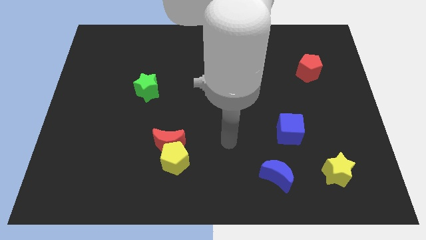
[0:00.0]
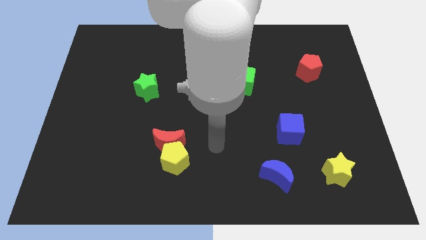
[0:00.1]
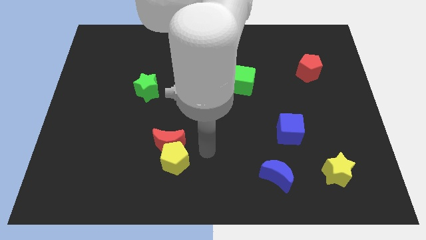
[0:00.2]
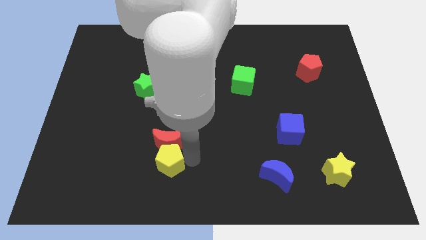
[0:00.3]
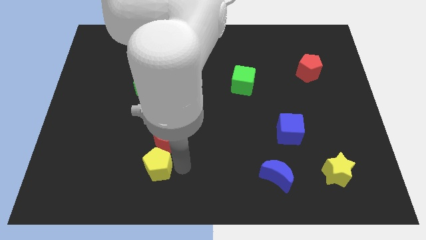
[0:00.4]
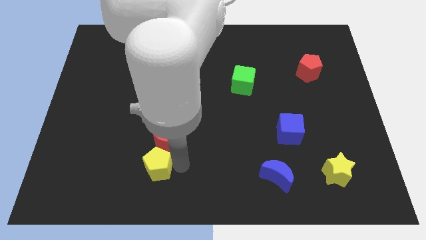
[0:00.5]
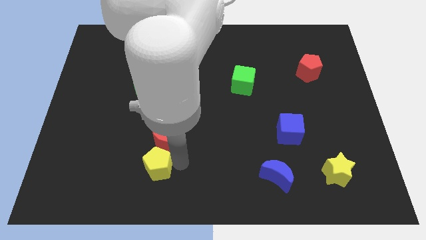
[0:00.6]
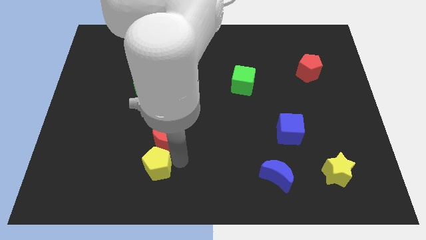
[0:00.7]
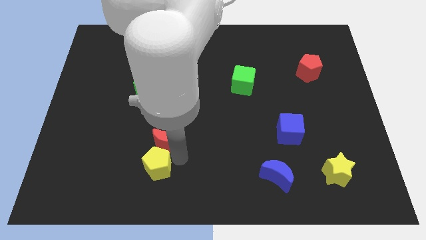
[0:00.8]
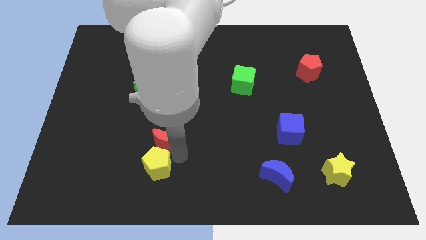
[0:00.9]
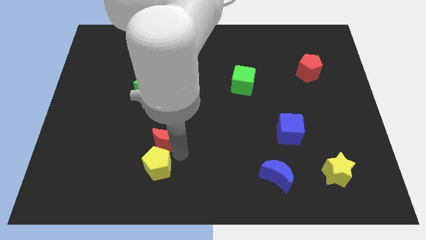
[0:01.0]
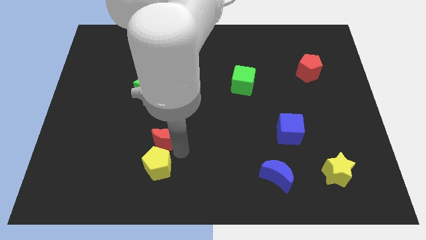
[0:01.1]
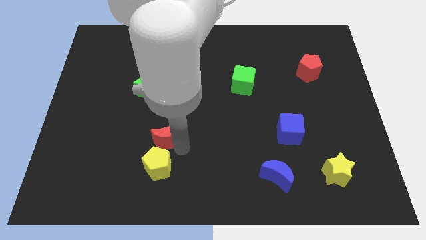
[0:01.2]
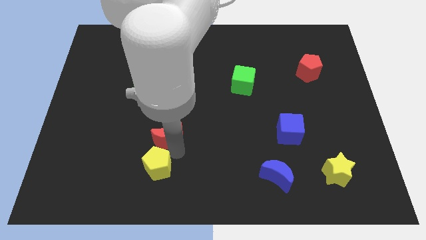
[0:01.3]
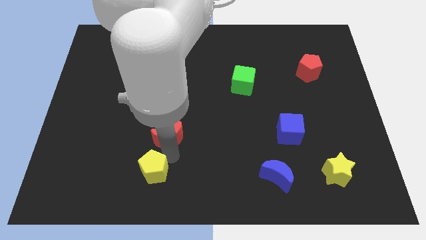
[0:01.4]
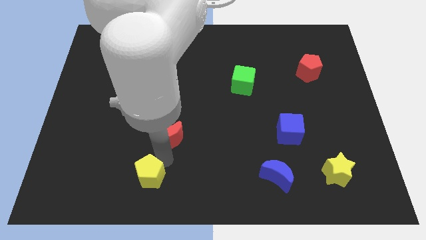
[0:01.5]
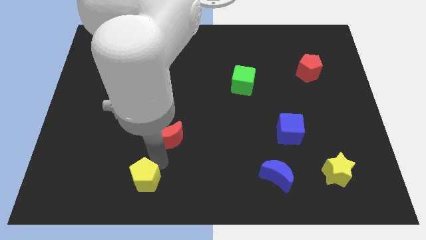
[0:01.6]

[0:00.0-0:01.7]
separate the red moon from the yellow pentagon

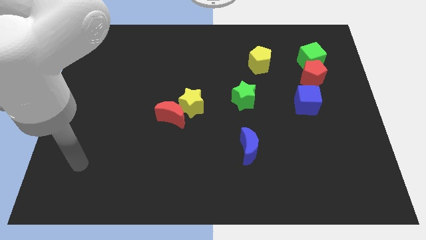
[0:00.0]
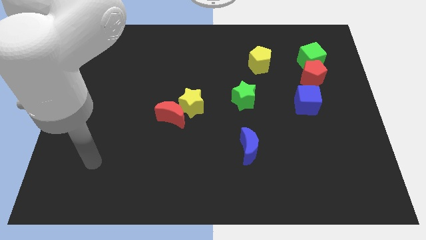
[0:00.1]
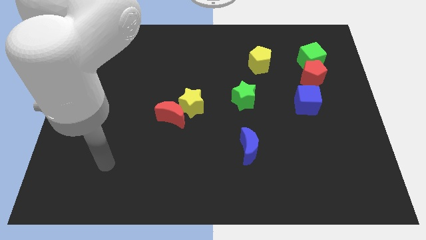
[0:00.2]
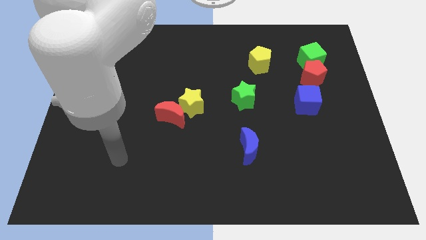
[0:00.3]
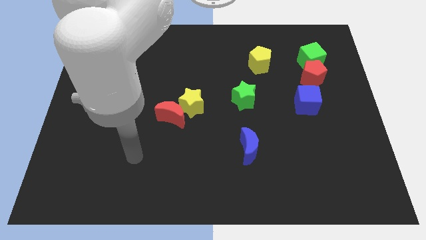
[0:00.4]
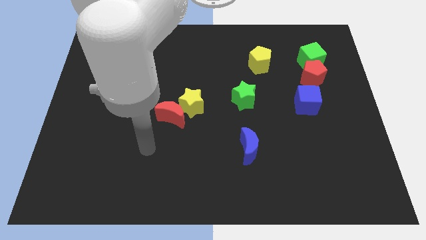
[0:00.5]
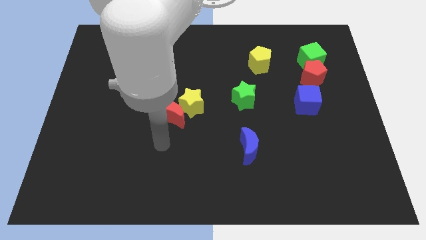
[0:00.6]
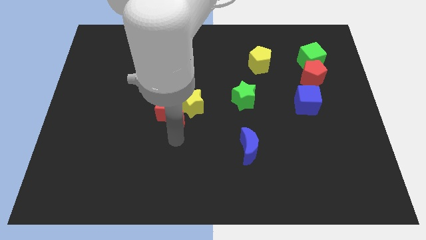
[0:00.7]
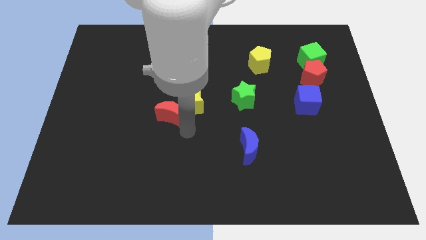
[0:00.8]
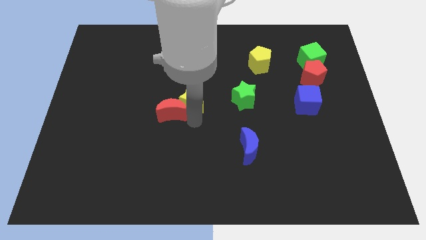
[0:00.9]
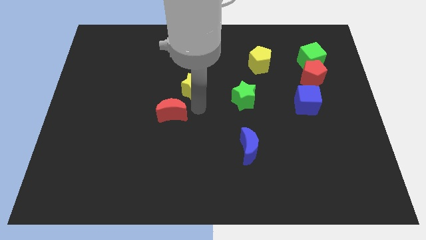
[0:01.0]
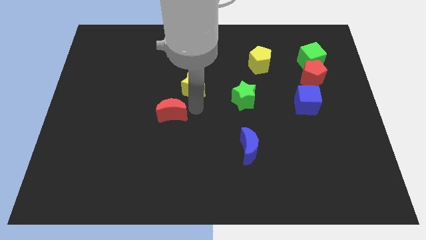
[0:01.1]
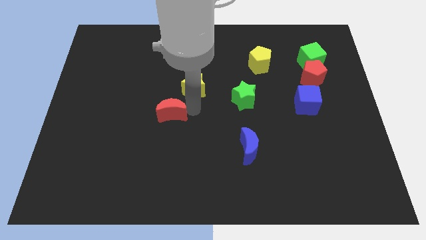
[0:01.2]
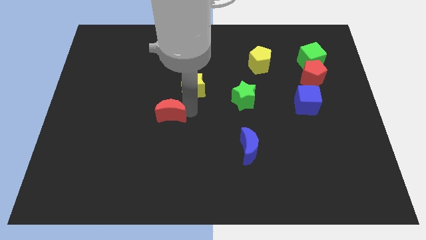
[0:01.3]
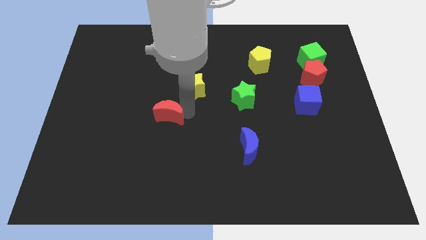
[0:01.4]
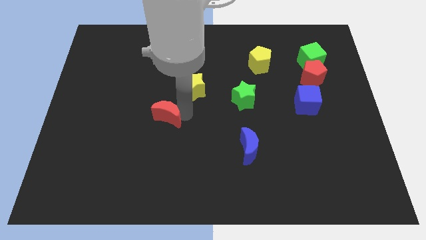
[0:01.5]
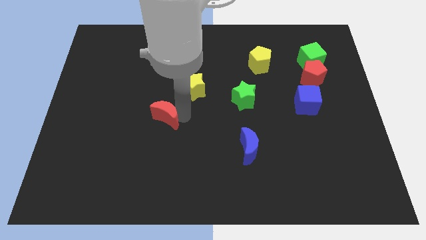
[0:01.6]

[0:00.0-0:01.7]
pull the red moon apart from the yellow star

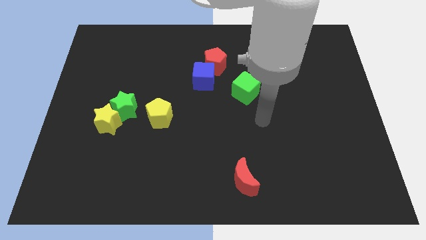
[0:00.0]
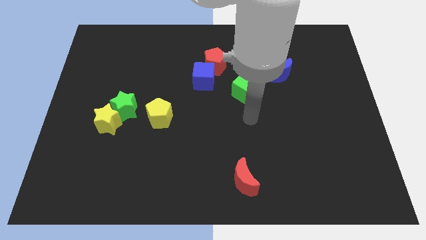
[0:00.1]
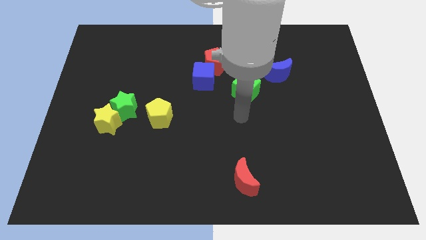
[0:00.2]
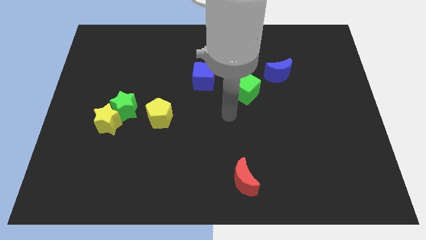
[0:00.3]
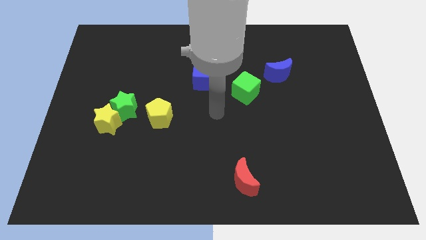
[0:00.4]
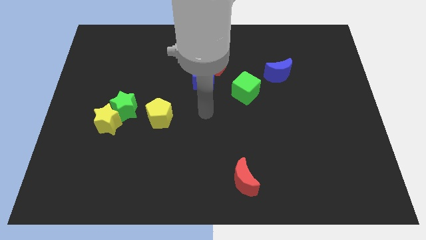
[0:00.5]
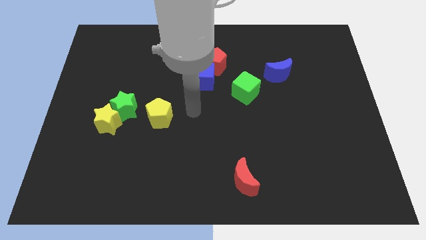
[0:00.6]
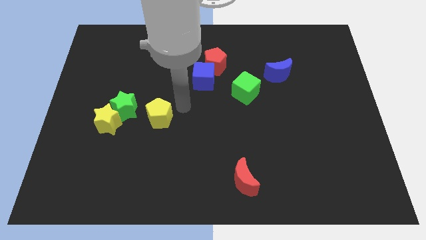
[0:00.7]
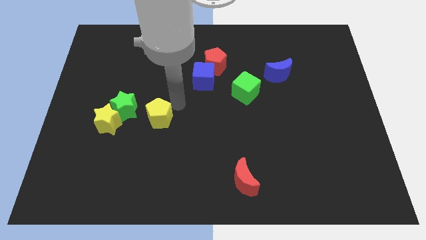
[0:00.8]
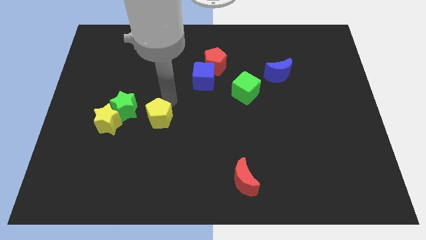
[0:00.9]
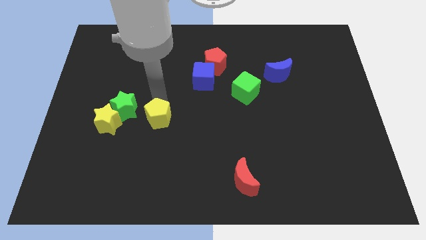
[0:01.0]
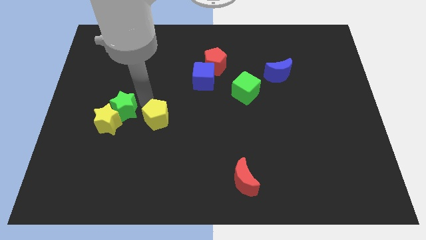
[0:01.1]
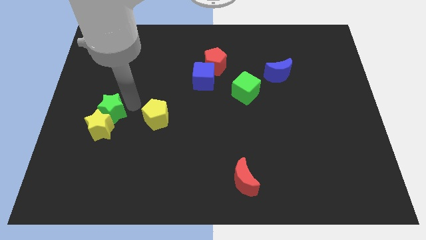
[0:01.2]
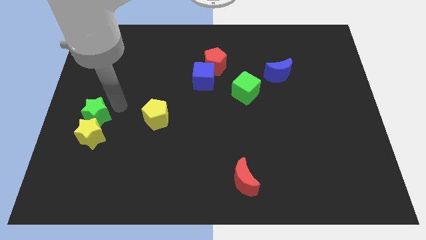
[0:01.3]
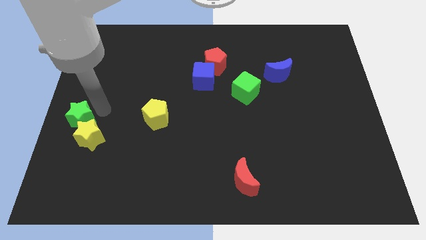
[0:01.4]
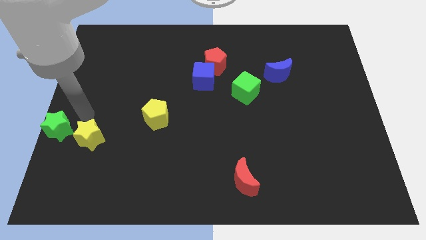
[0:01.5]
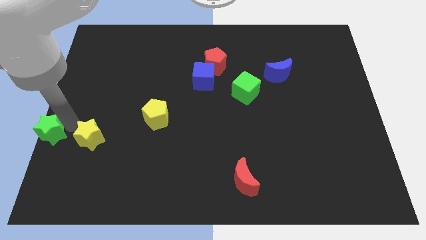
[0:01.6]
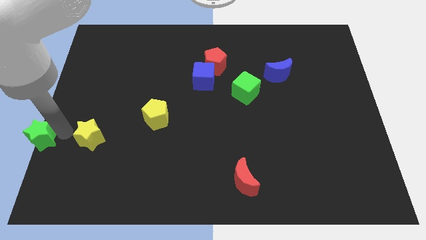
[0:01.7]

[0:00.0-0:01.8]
pull the yellow star apart from the green star

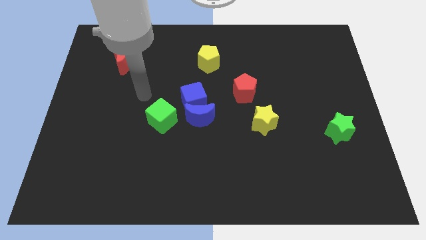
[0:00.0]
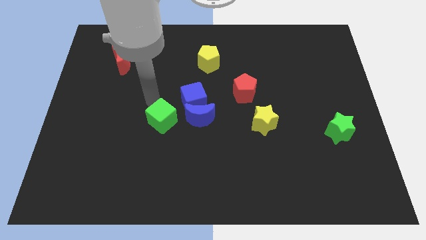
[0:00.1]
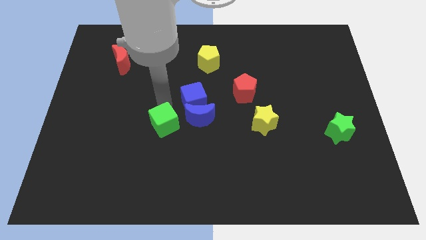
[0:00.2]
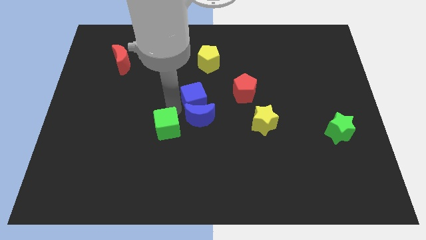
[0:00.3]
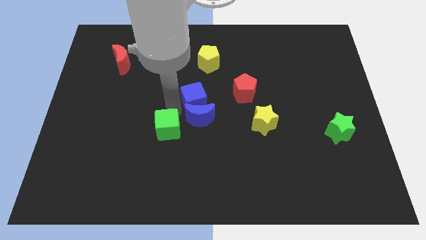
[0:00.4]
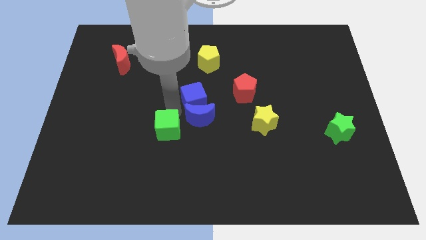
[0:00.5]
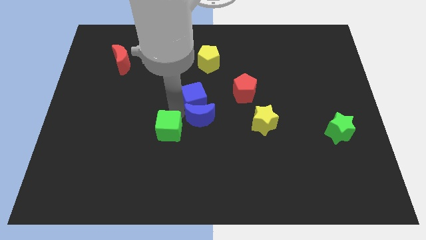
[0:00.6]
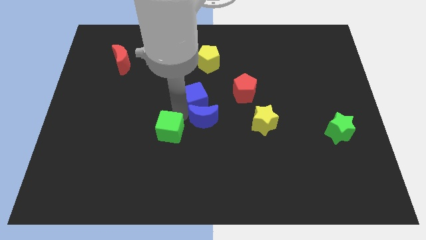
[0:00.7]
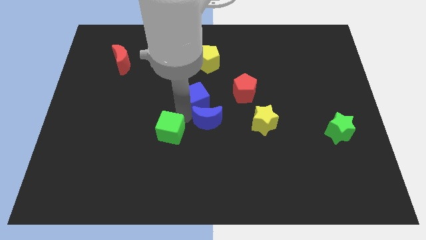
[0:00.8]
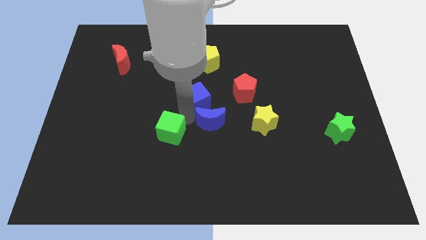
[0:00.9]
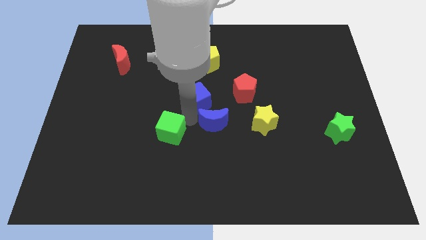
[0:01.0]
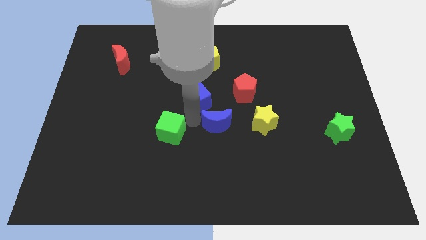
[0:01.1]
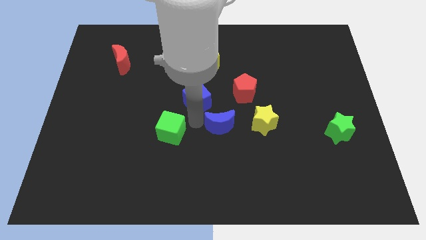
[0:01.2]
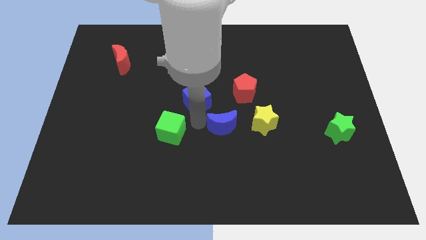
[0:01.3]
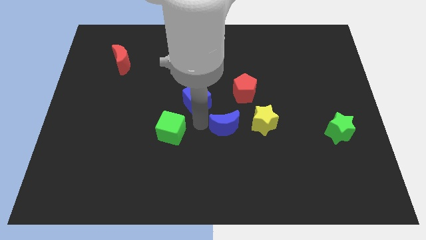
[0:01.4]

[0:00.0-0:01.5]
separate the blue moon from the blue cube and green cube

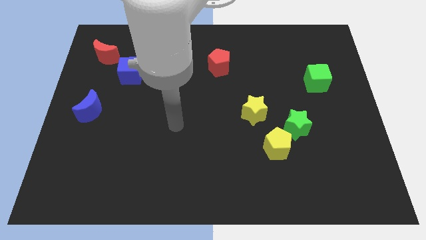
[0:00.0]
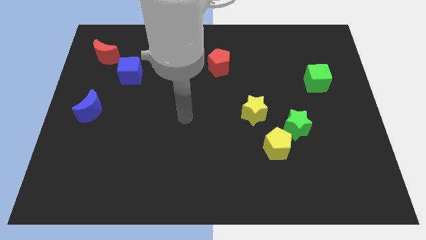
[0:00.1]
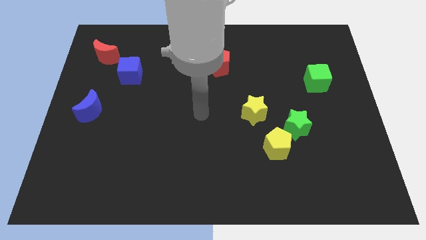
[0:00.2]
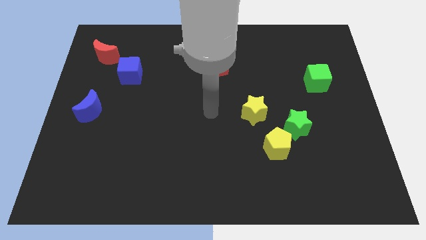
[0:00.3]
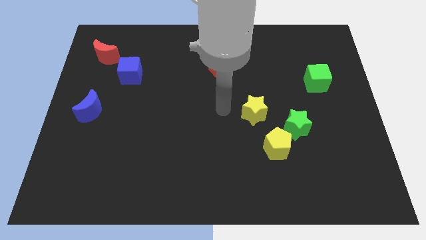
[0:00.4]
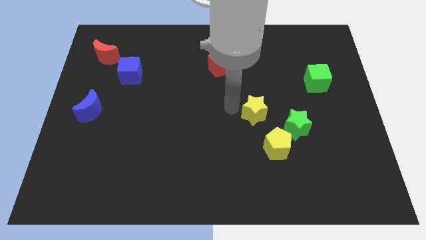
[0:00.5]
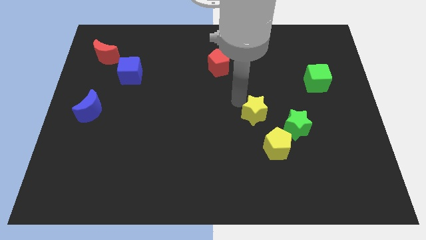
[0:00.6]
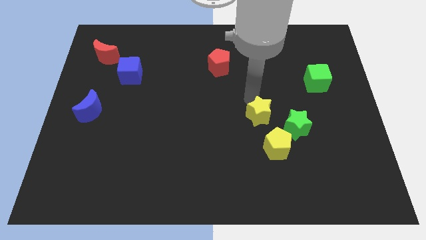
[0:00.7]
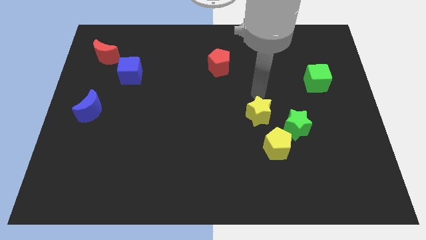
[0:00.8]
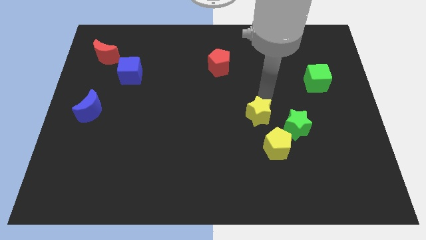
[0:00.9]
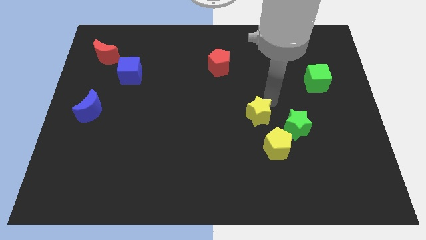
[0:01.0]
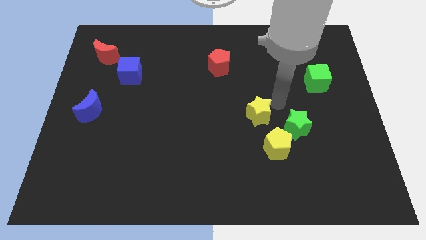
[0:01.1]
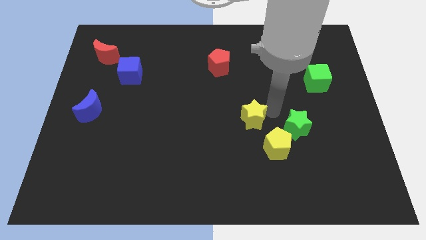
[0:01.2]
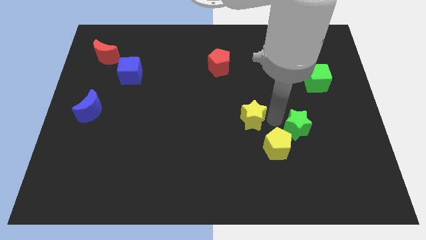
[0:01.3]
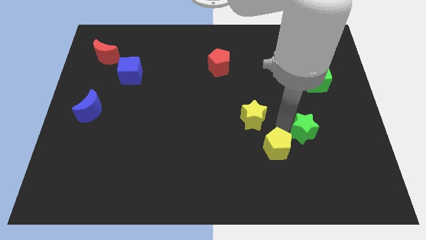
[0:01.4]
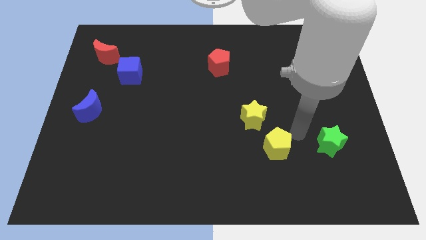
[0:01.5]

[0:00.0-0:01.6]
pull the yellow pentagon apart from the green star

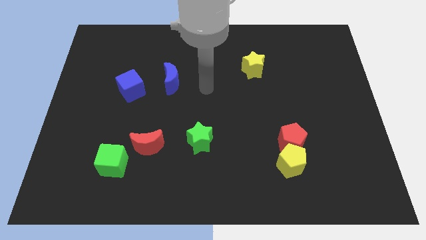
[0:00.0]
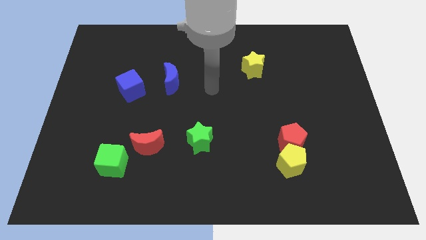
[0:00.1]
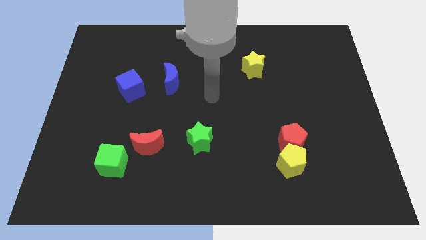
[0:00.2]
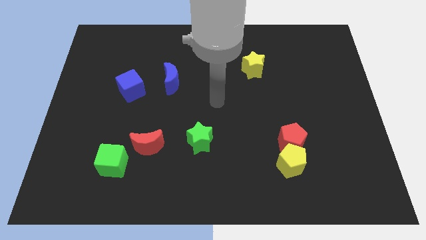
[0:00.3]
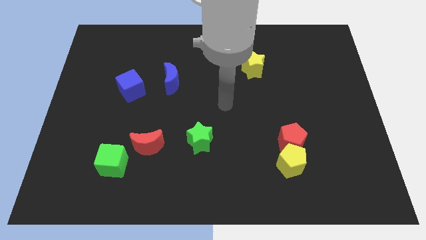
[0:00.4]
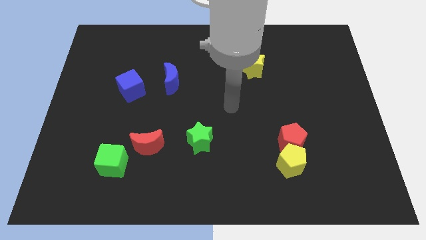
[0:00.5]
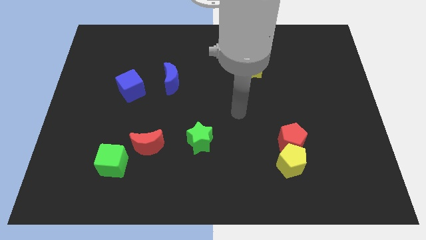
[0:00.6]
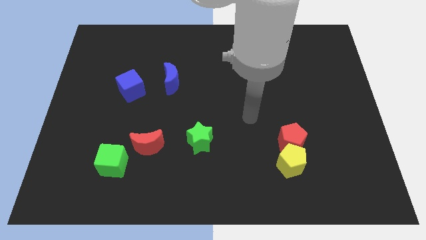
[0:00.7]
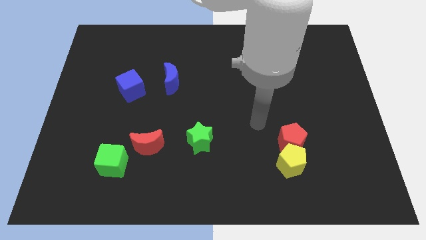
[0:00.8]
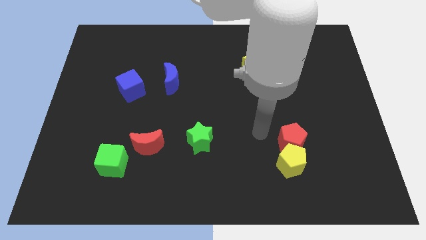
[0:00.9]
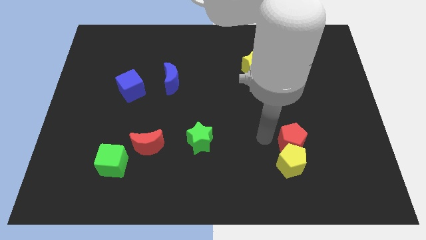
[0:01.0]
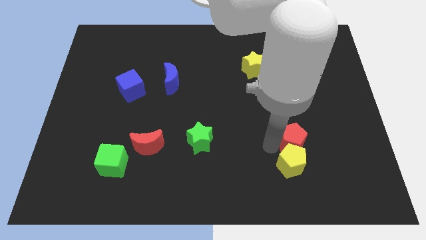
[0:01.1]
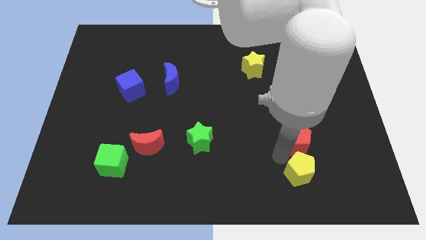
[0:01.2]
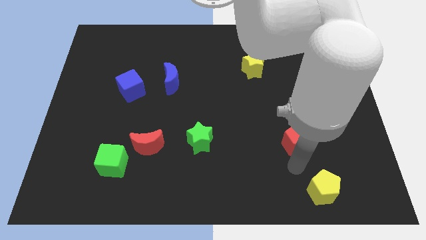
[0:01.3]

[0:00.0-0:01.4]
move the red pentagon away from the yellow pentagon
